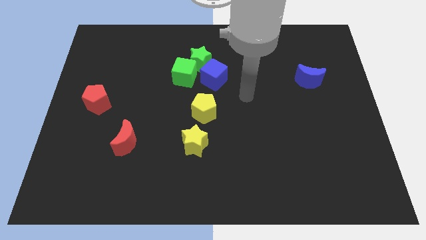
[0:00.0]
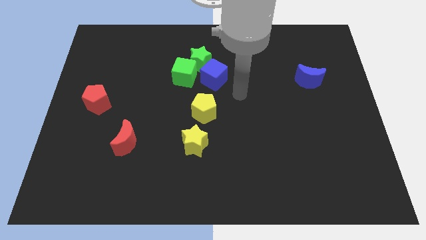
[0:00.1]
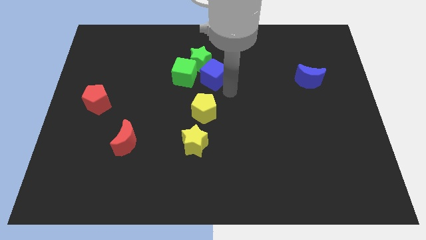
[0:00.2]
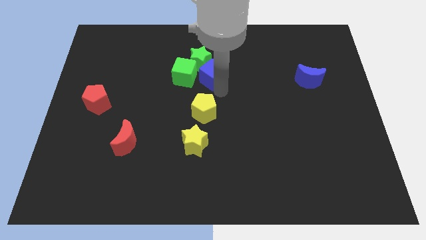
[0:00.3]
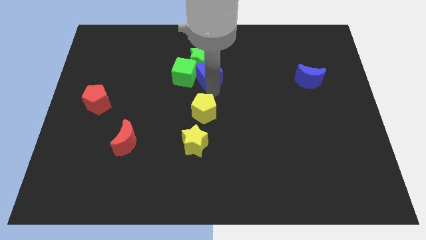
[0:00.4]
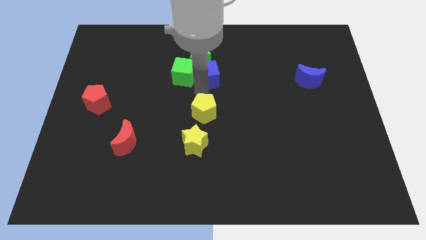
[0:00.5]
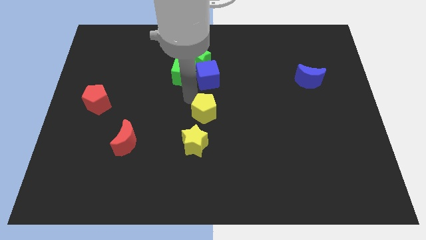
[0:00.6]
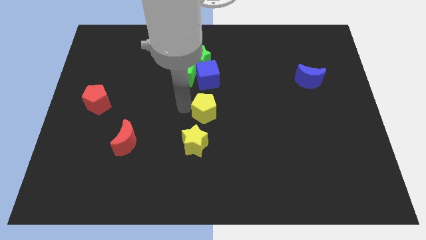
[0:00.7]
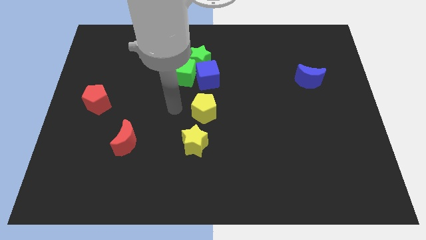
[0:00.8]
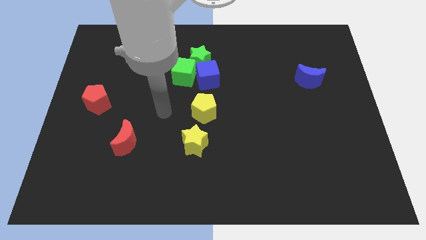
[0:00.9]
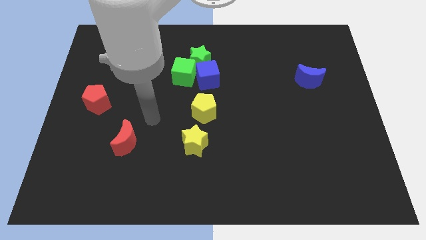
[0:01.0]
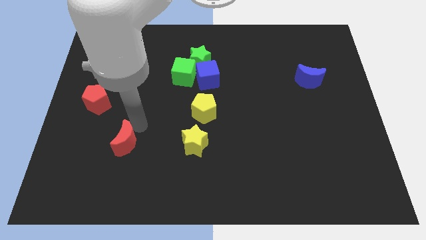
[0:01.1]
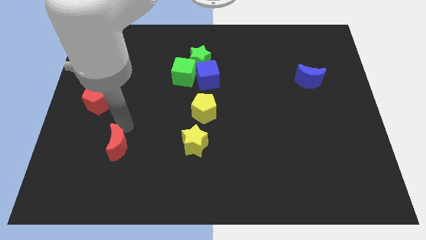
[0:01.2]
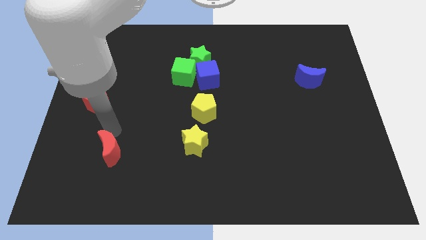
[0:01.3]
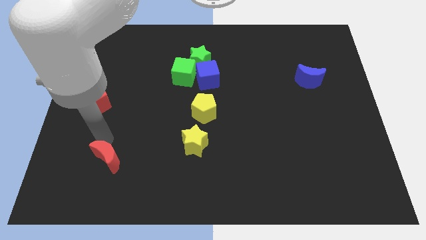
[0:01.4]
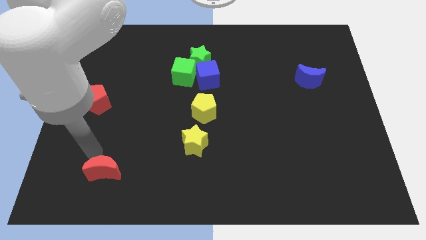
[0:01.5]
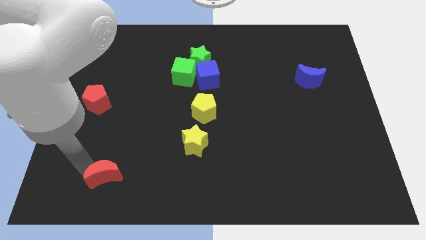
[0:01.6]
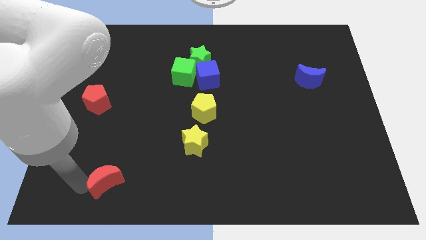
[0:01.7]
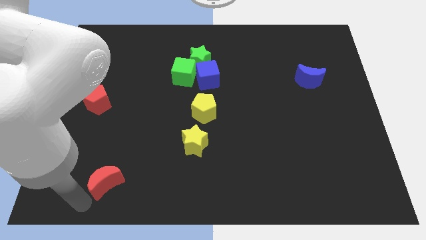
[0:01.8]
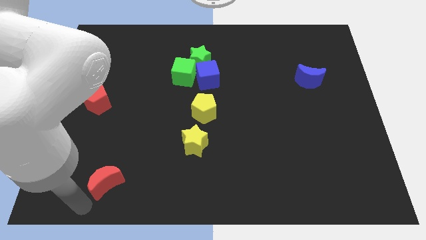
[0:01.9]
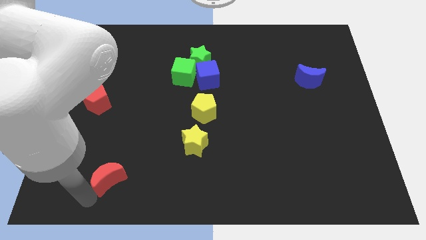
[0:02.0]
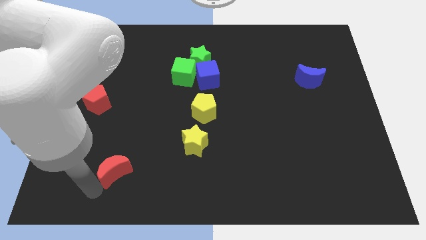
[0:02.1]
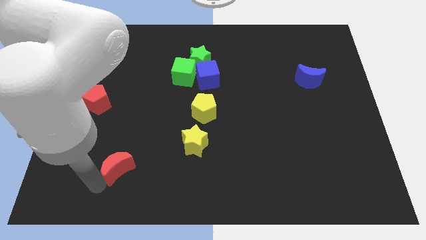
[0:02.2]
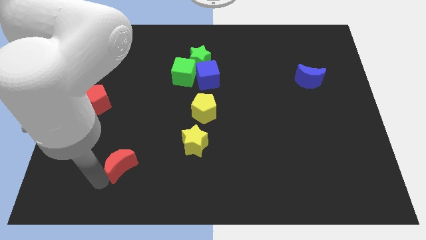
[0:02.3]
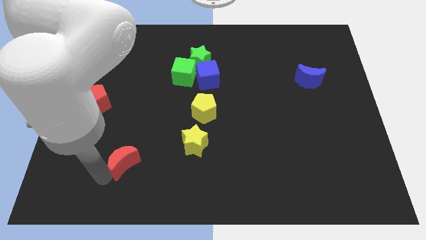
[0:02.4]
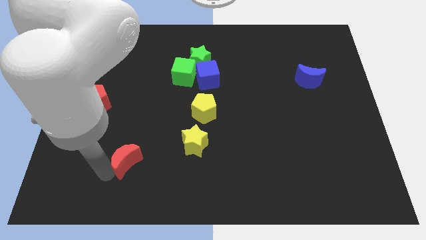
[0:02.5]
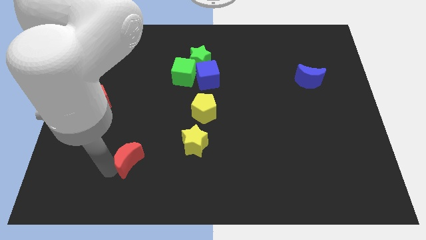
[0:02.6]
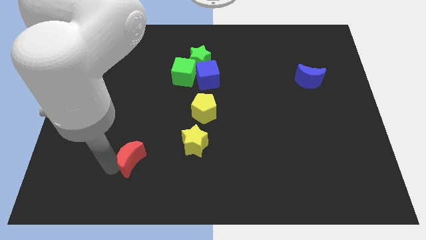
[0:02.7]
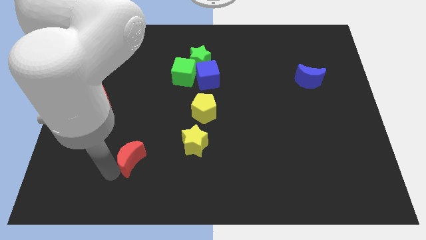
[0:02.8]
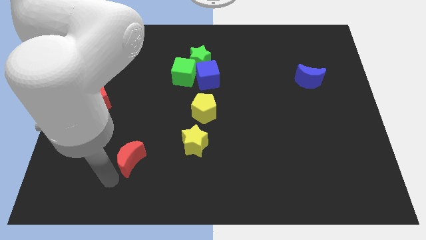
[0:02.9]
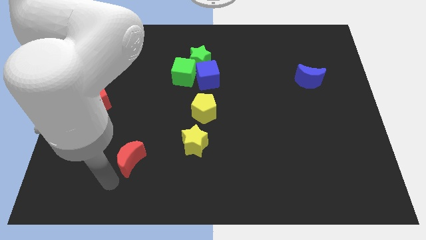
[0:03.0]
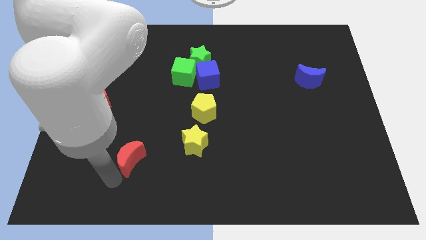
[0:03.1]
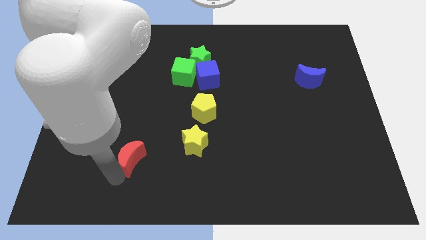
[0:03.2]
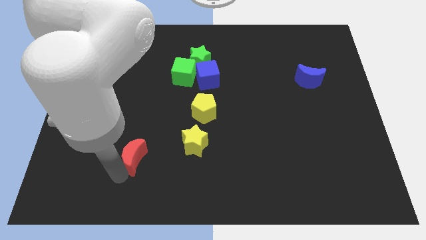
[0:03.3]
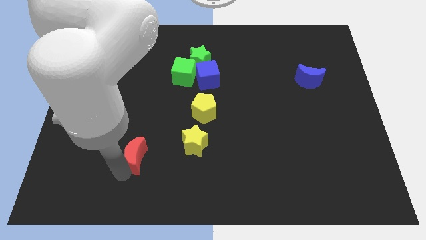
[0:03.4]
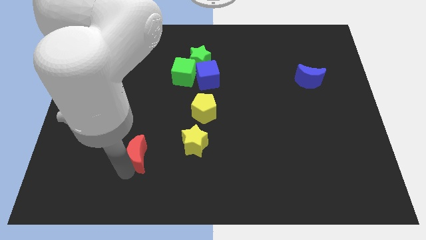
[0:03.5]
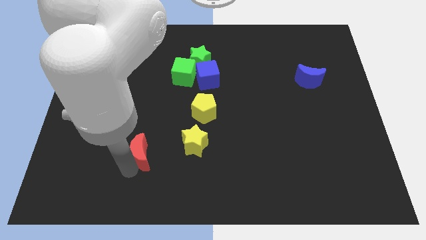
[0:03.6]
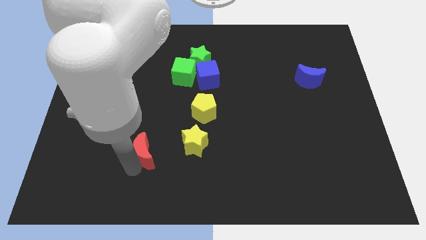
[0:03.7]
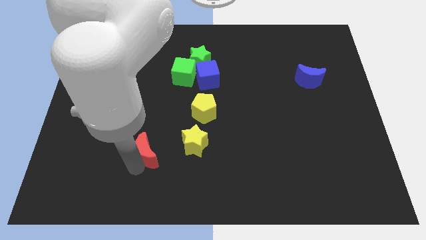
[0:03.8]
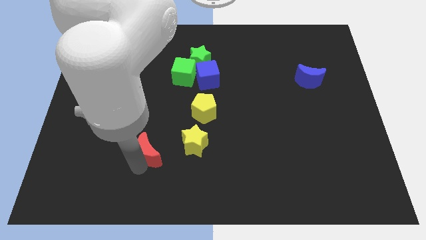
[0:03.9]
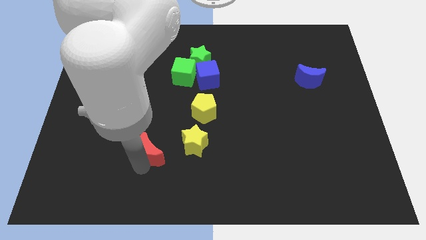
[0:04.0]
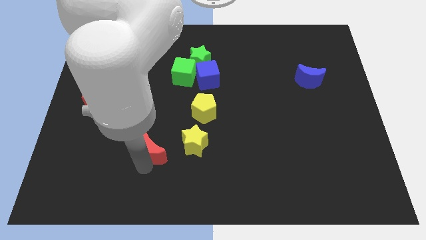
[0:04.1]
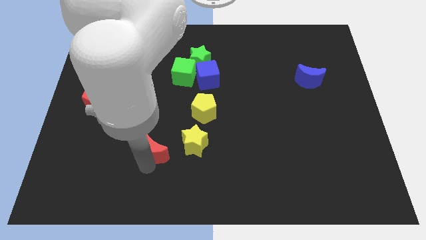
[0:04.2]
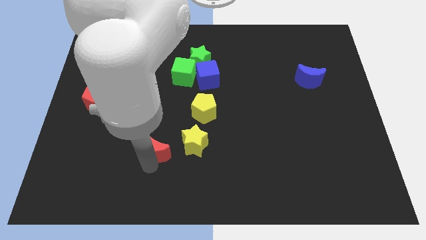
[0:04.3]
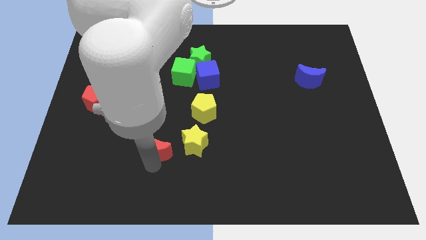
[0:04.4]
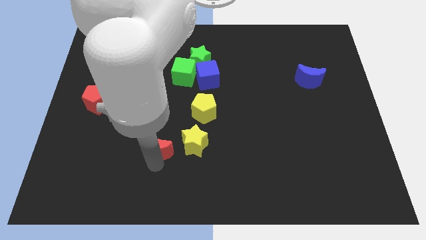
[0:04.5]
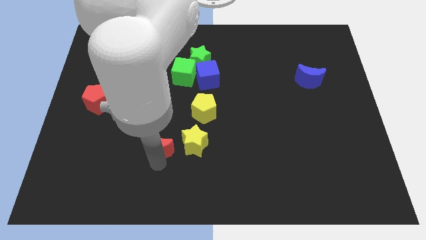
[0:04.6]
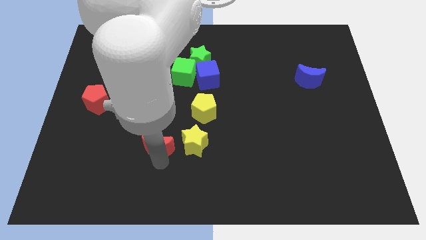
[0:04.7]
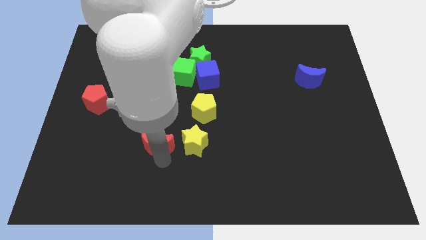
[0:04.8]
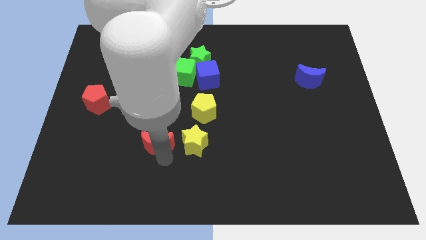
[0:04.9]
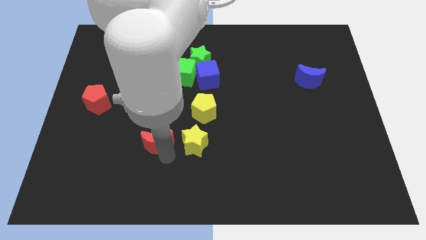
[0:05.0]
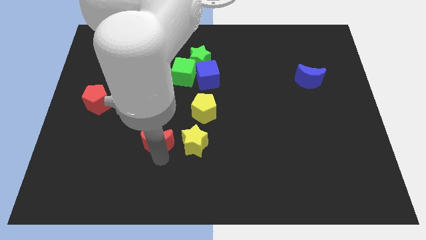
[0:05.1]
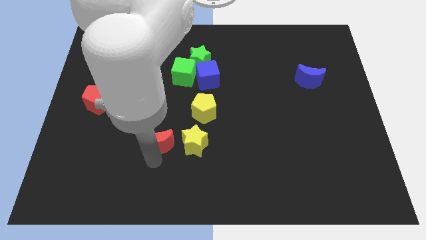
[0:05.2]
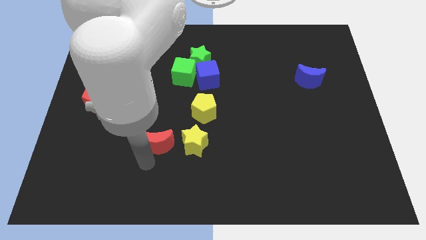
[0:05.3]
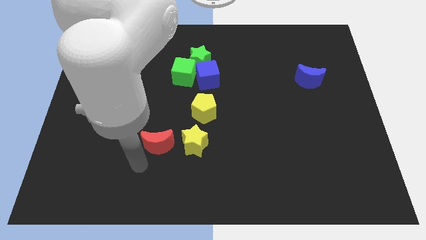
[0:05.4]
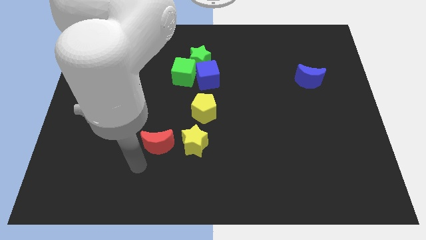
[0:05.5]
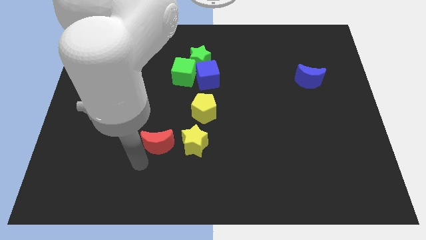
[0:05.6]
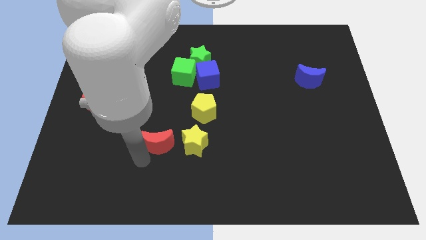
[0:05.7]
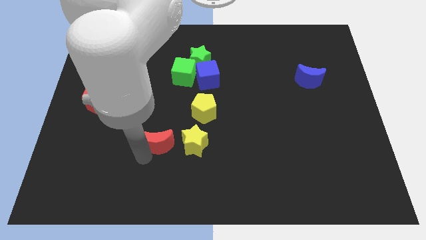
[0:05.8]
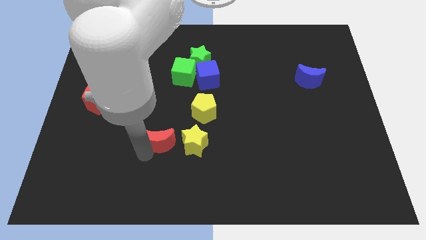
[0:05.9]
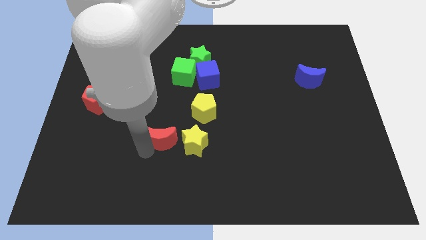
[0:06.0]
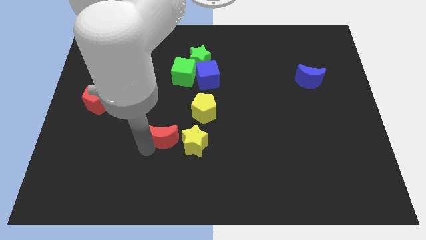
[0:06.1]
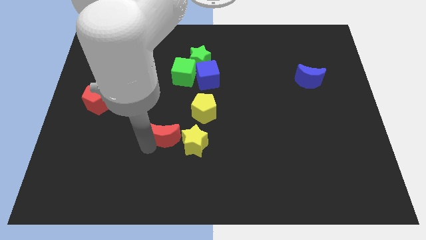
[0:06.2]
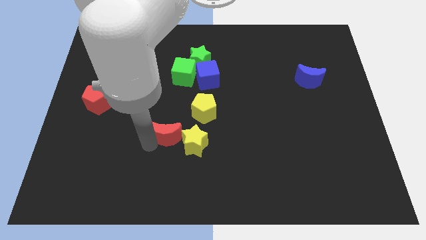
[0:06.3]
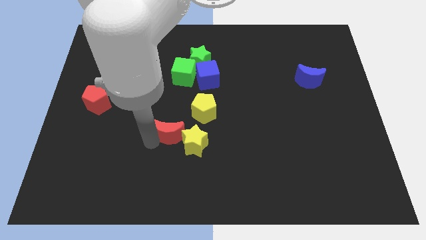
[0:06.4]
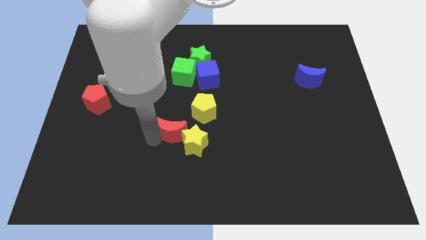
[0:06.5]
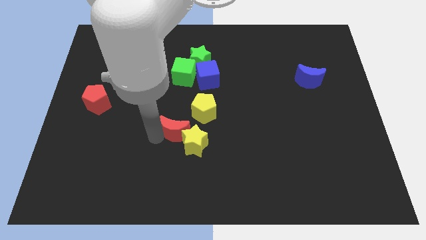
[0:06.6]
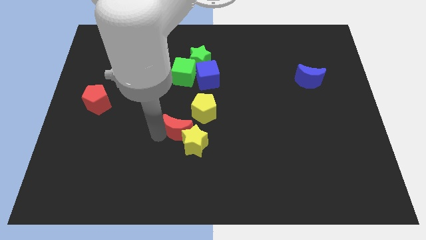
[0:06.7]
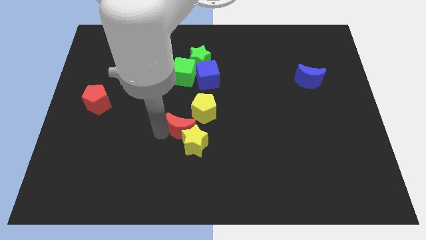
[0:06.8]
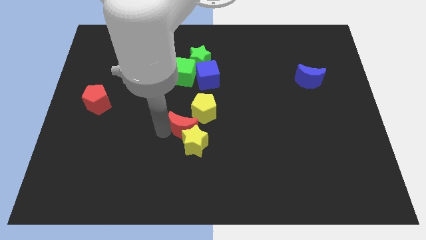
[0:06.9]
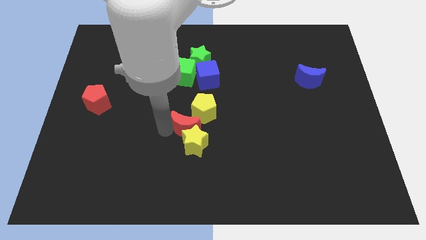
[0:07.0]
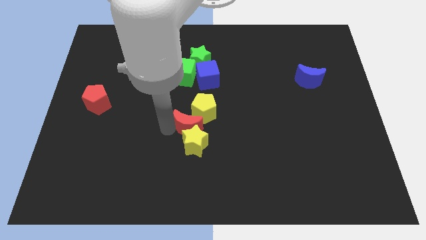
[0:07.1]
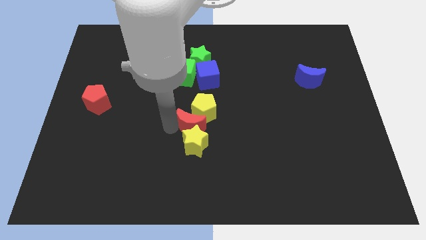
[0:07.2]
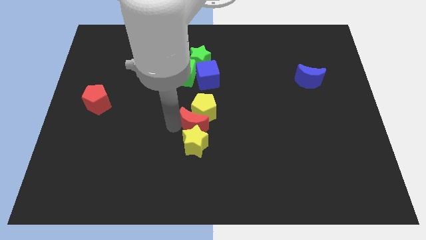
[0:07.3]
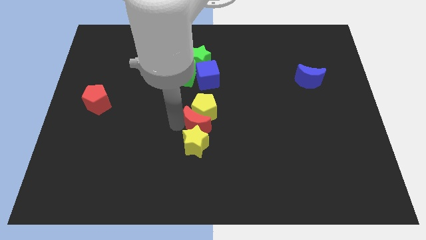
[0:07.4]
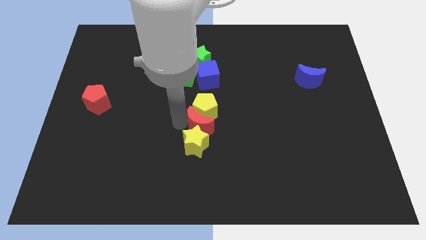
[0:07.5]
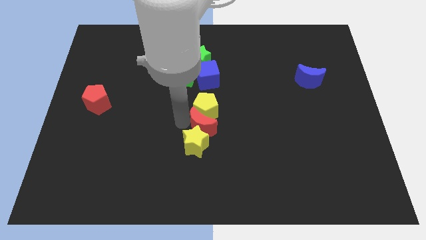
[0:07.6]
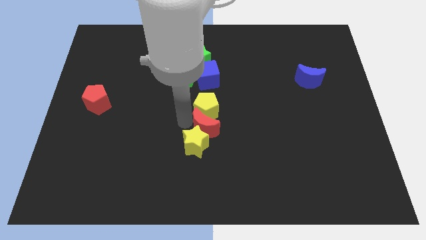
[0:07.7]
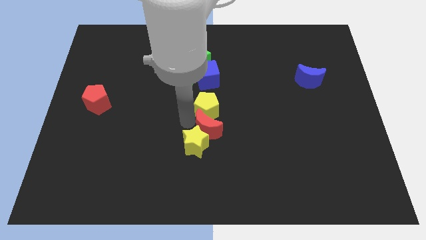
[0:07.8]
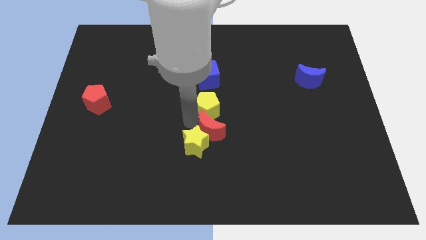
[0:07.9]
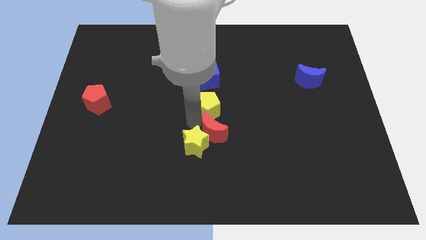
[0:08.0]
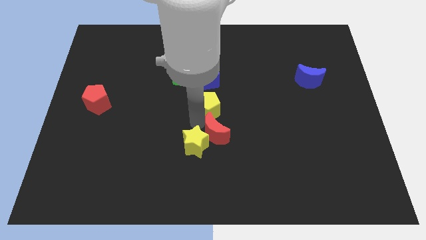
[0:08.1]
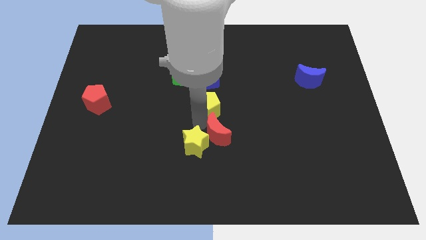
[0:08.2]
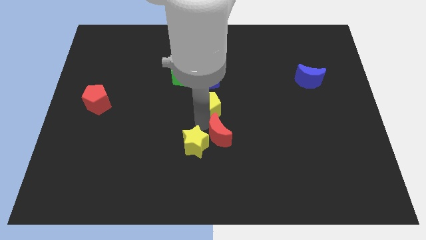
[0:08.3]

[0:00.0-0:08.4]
slide the red moon to the right
